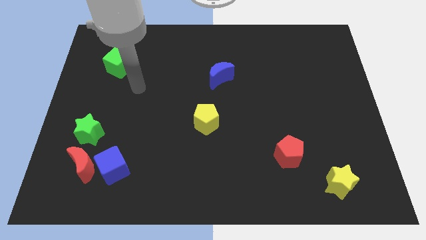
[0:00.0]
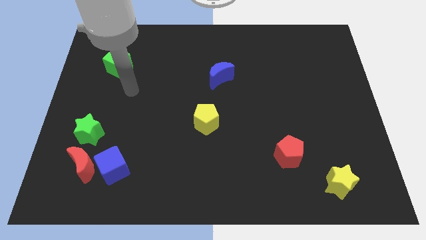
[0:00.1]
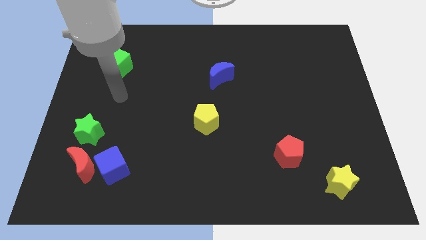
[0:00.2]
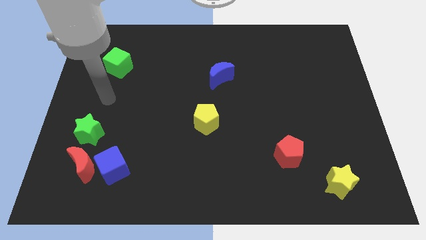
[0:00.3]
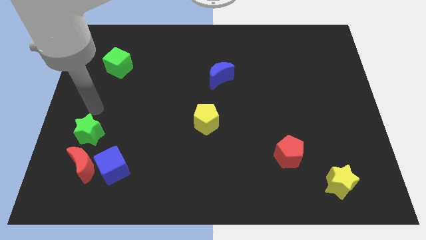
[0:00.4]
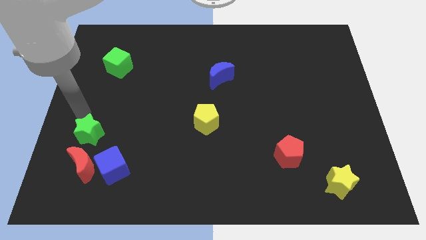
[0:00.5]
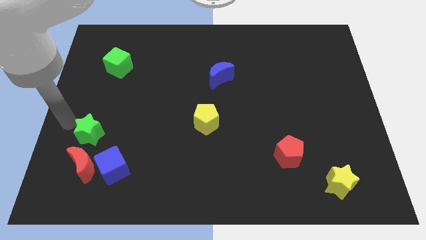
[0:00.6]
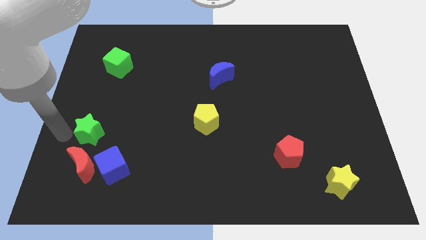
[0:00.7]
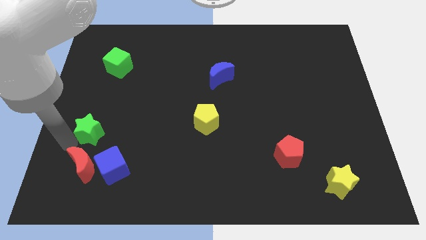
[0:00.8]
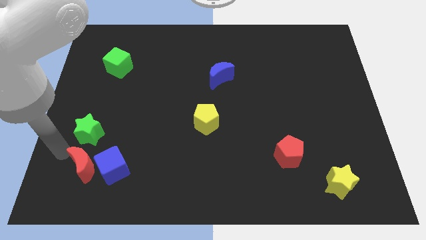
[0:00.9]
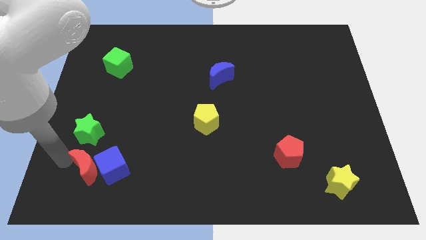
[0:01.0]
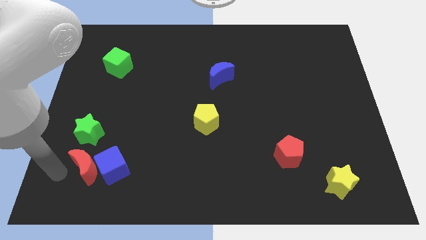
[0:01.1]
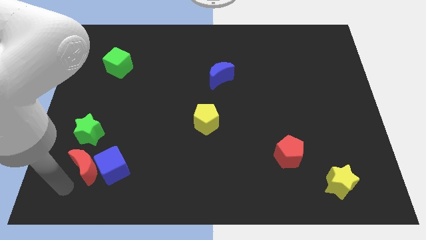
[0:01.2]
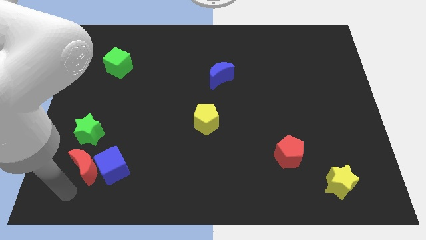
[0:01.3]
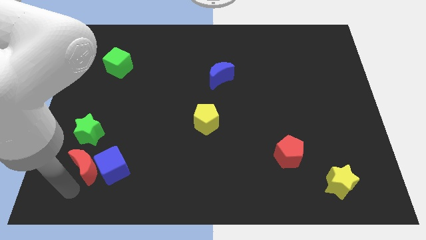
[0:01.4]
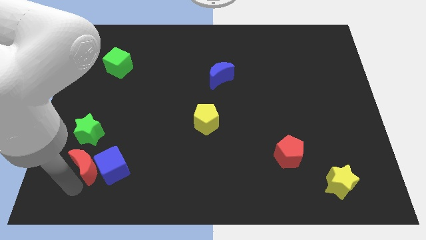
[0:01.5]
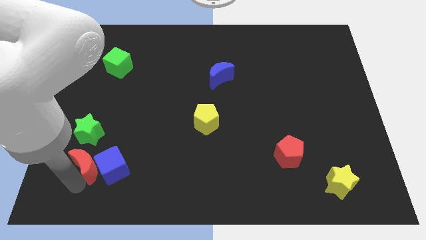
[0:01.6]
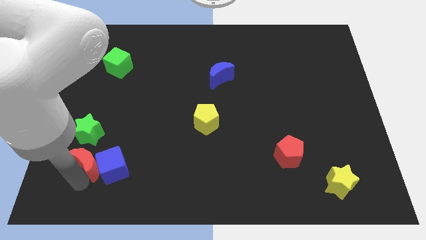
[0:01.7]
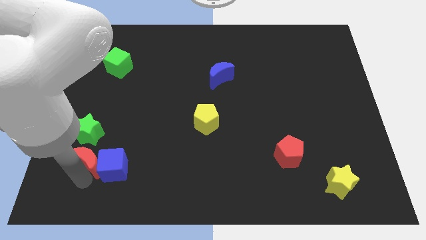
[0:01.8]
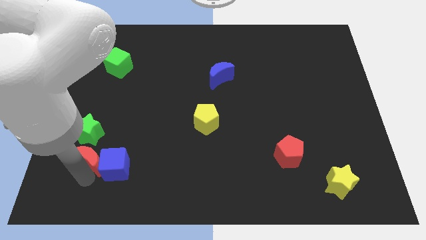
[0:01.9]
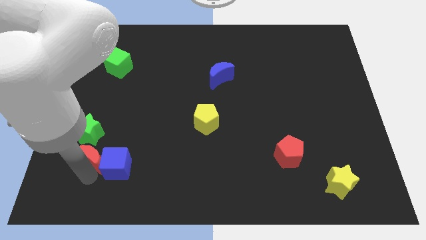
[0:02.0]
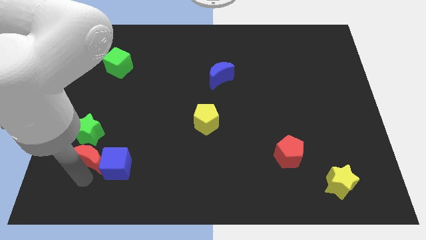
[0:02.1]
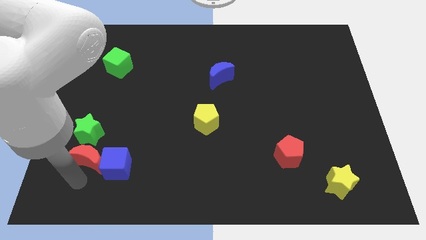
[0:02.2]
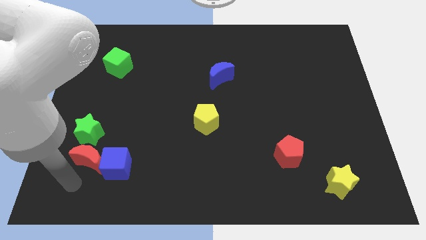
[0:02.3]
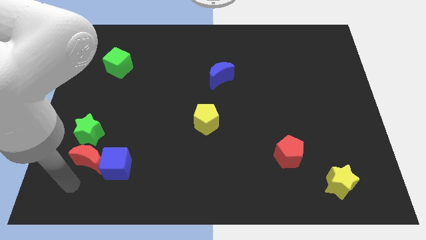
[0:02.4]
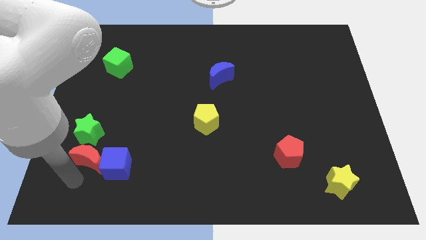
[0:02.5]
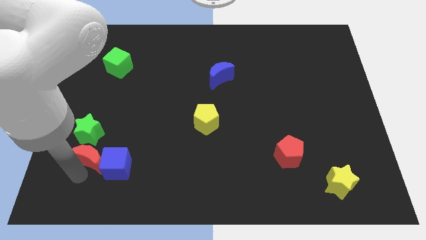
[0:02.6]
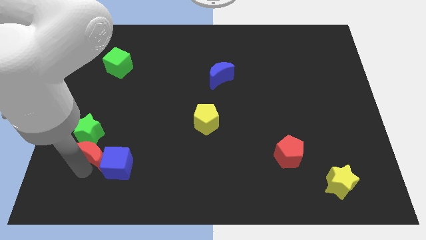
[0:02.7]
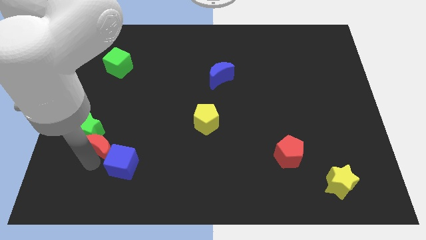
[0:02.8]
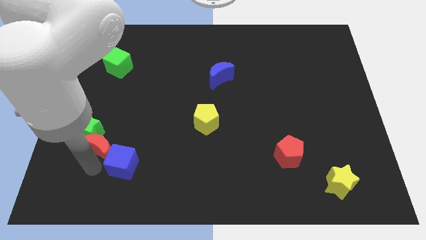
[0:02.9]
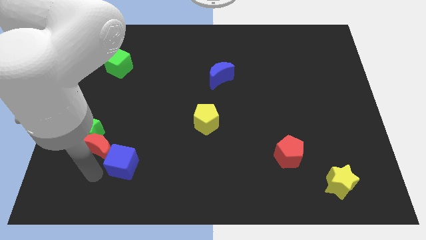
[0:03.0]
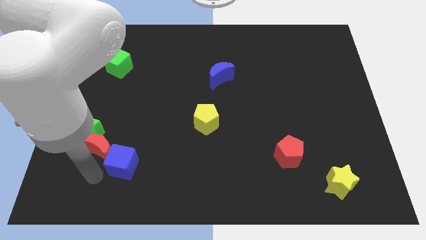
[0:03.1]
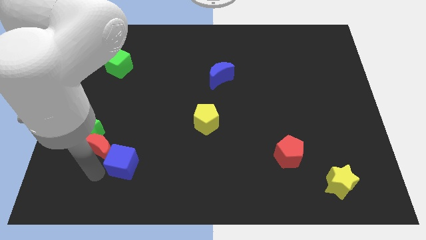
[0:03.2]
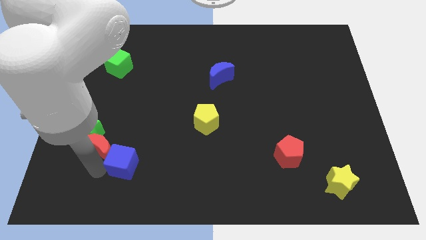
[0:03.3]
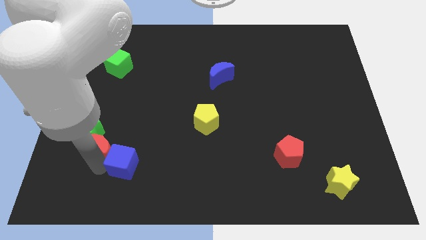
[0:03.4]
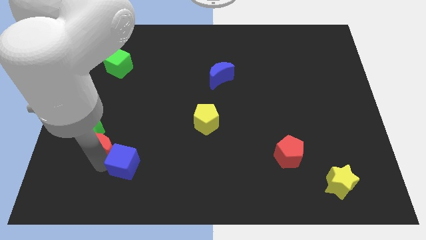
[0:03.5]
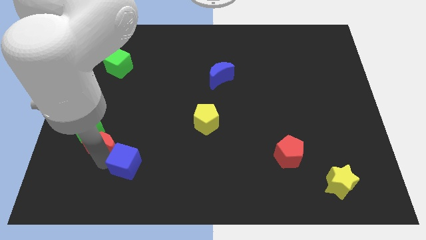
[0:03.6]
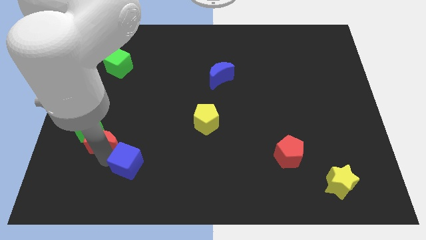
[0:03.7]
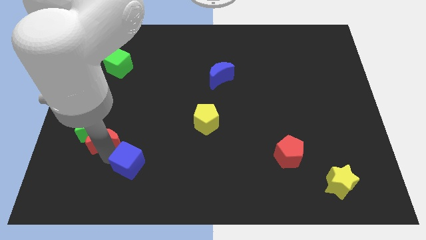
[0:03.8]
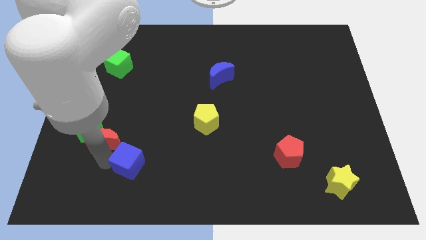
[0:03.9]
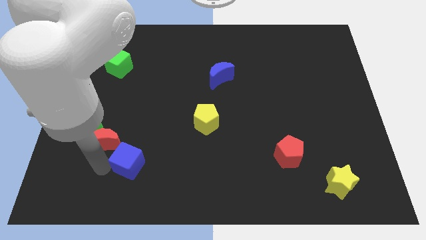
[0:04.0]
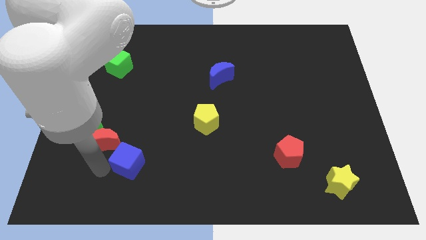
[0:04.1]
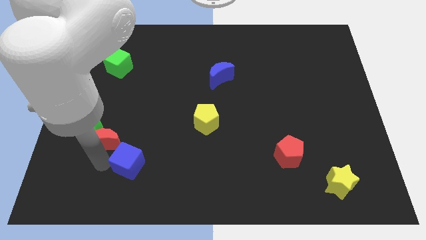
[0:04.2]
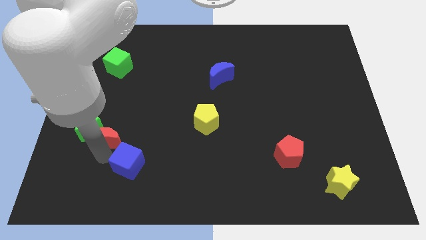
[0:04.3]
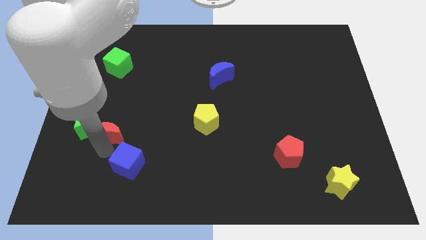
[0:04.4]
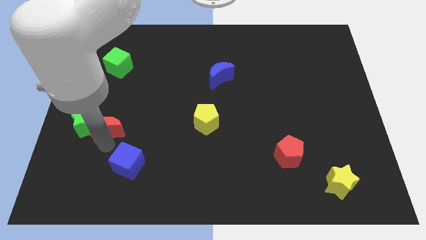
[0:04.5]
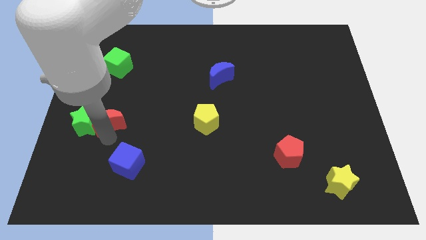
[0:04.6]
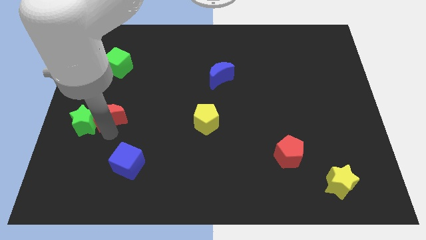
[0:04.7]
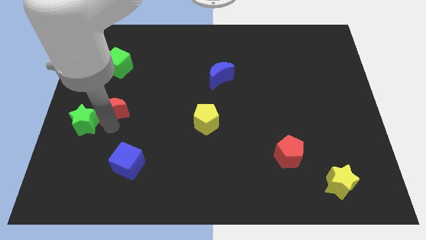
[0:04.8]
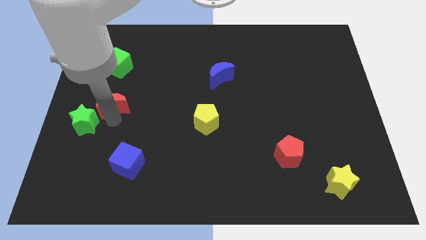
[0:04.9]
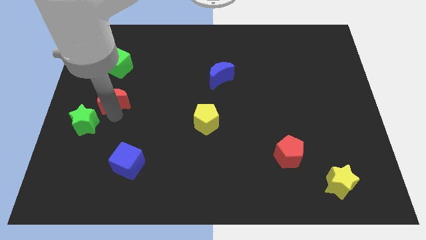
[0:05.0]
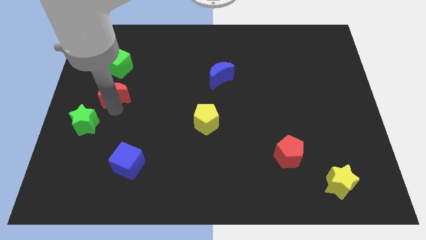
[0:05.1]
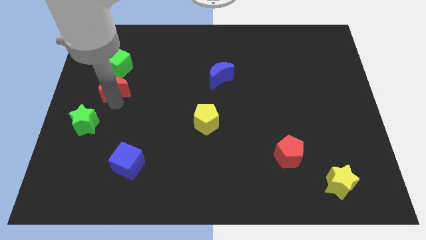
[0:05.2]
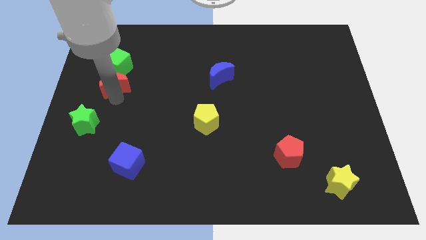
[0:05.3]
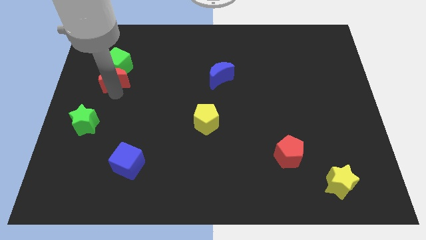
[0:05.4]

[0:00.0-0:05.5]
push the red moon towards the green cube

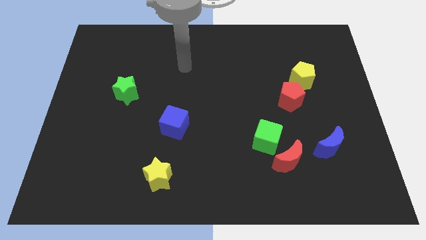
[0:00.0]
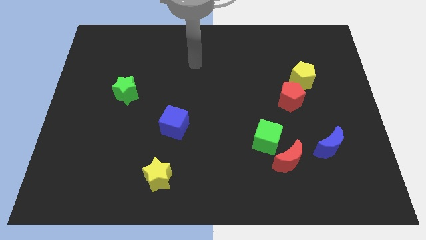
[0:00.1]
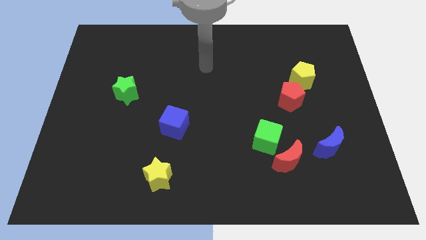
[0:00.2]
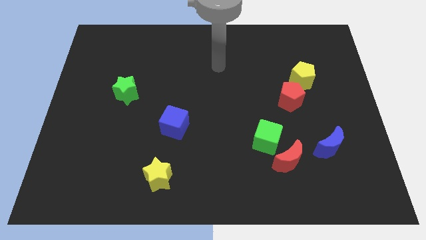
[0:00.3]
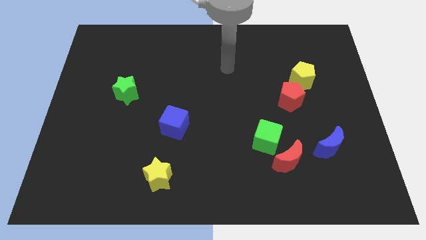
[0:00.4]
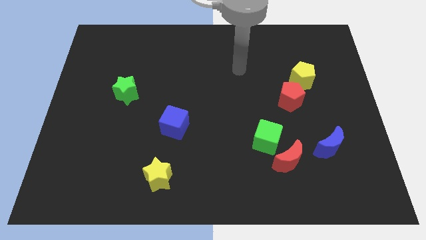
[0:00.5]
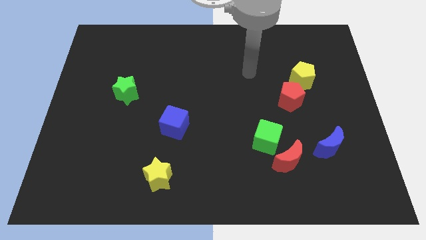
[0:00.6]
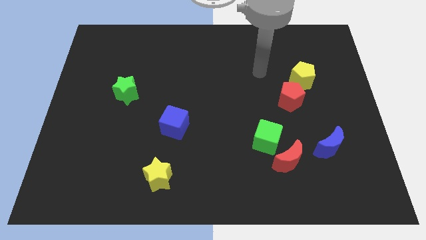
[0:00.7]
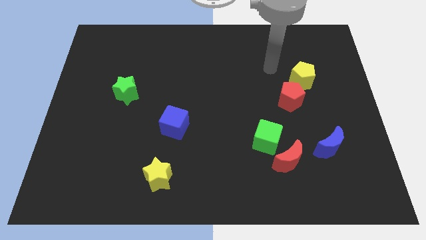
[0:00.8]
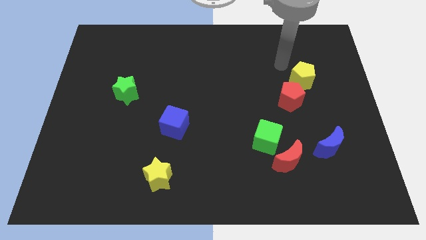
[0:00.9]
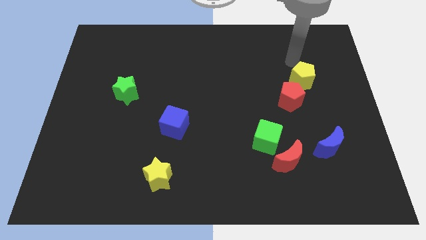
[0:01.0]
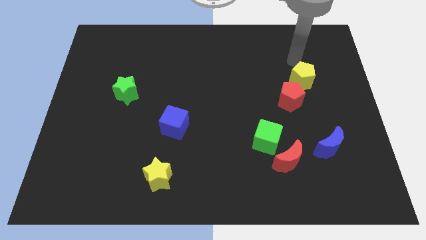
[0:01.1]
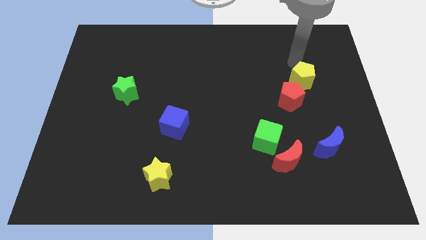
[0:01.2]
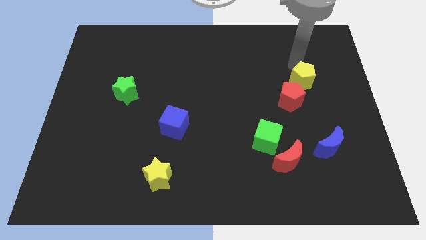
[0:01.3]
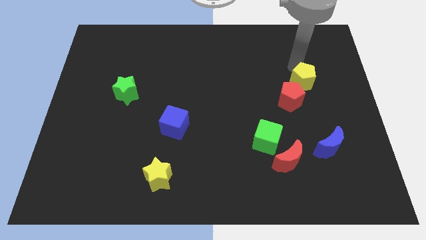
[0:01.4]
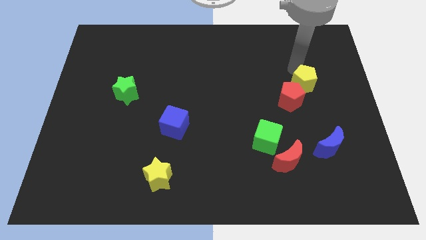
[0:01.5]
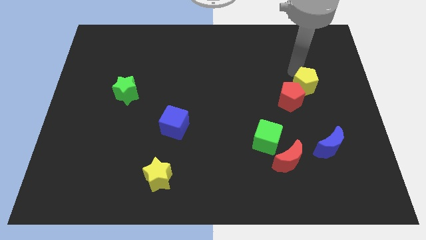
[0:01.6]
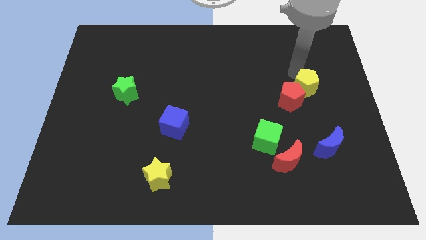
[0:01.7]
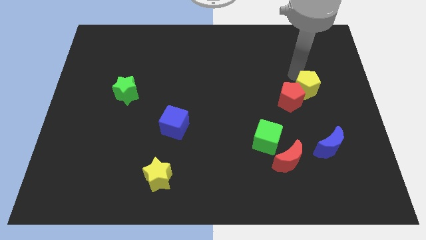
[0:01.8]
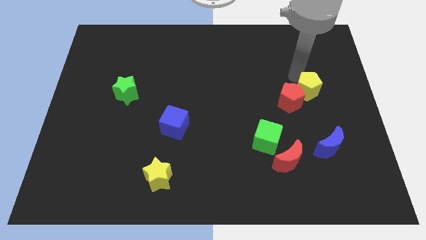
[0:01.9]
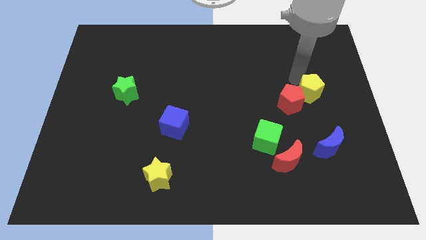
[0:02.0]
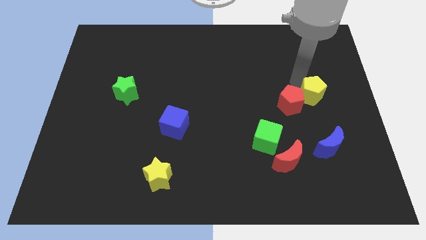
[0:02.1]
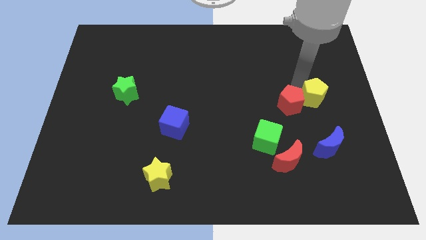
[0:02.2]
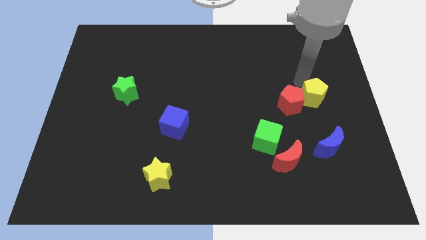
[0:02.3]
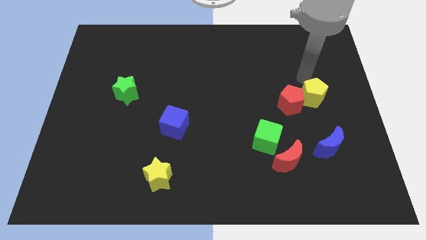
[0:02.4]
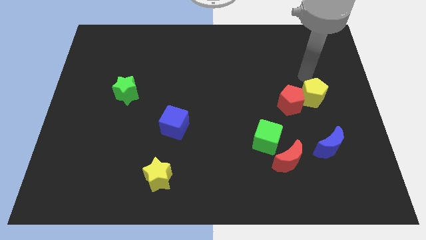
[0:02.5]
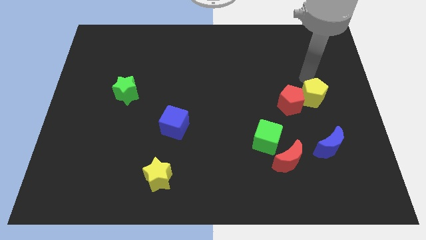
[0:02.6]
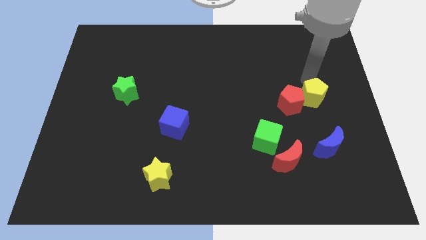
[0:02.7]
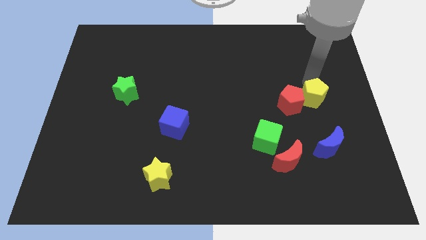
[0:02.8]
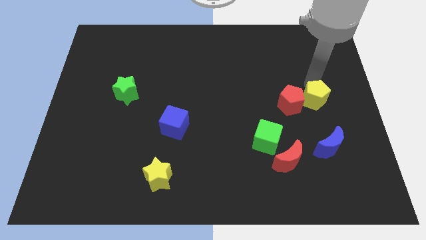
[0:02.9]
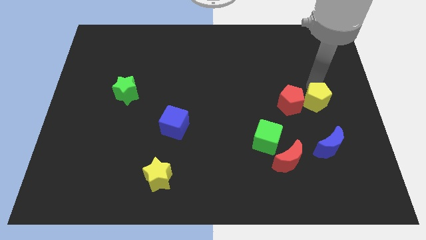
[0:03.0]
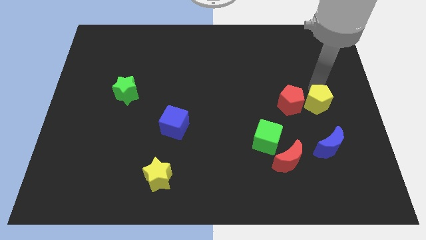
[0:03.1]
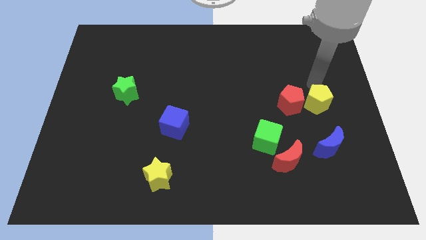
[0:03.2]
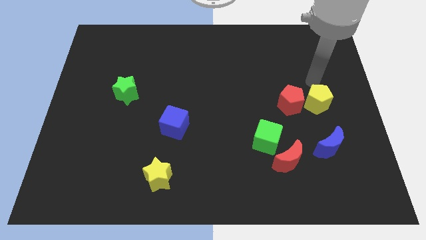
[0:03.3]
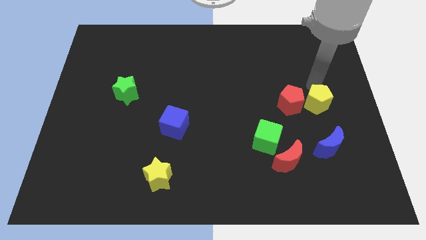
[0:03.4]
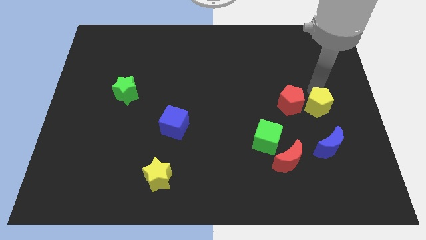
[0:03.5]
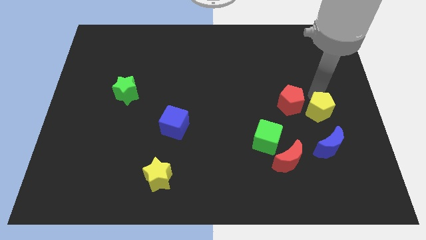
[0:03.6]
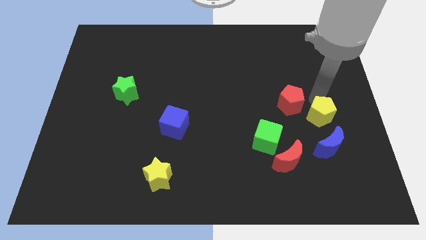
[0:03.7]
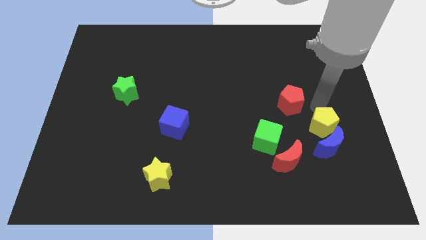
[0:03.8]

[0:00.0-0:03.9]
slide the yellow pentagon to the blue moon
